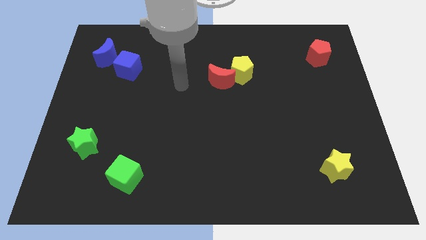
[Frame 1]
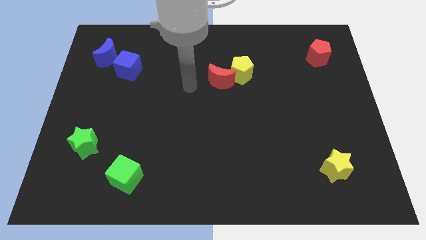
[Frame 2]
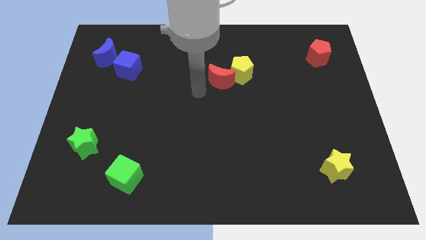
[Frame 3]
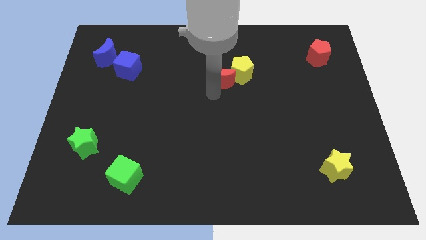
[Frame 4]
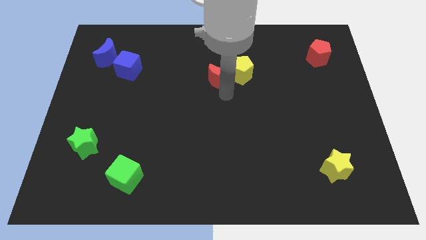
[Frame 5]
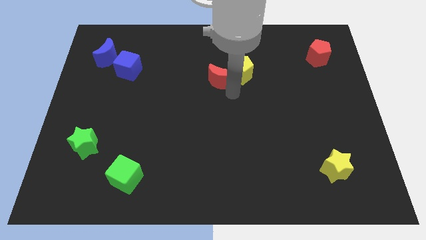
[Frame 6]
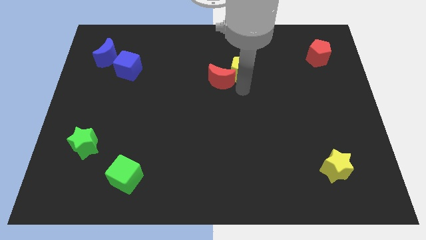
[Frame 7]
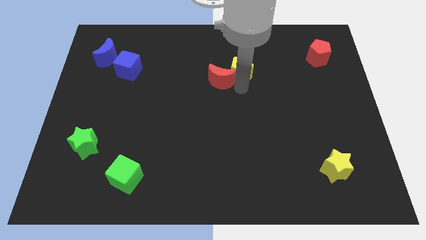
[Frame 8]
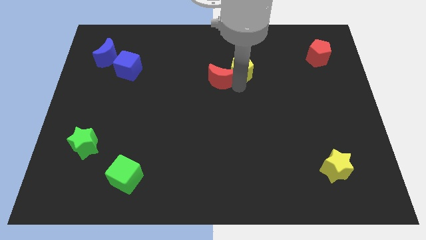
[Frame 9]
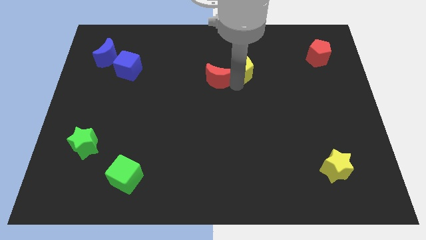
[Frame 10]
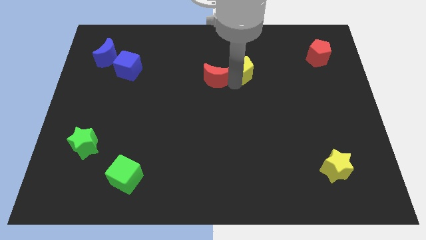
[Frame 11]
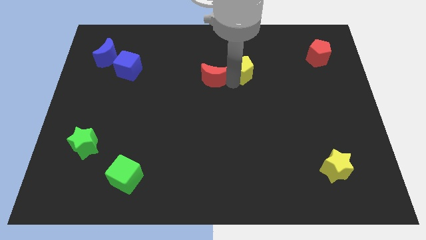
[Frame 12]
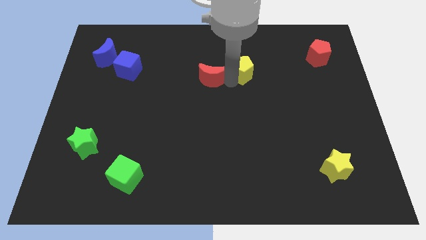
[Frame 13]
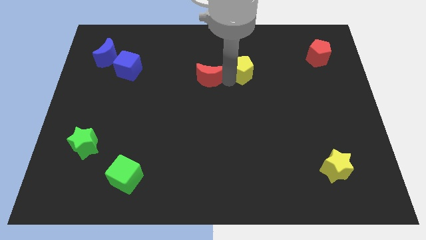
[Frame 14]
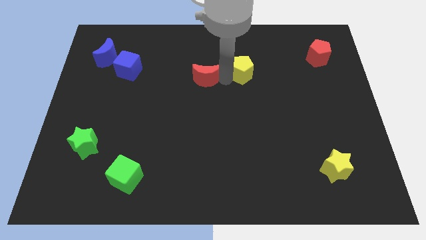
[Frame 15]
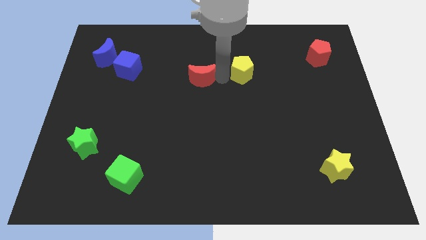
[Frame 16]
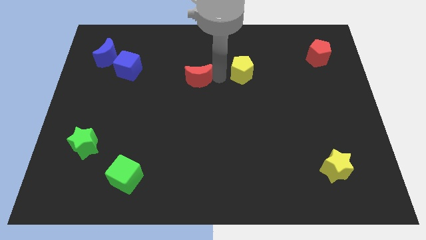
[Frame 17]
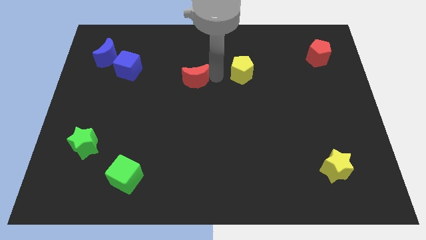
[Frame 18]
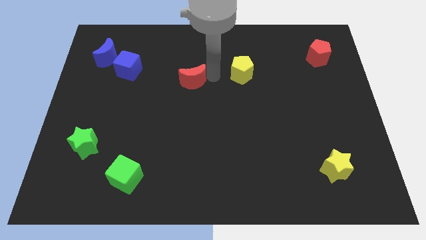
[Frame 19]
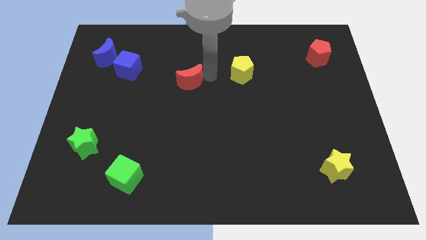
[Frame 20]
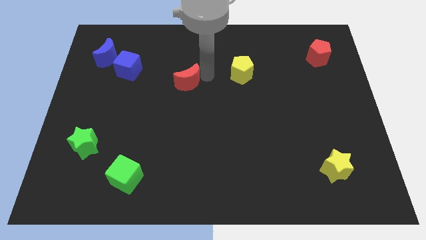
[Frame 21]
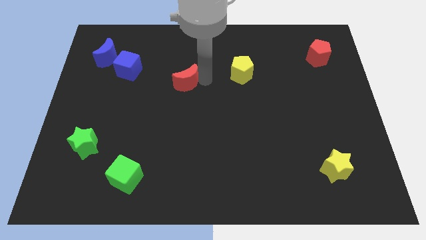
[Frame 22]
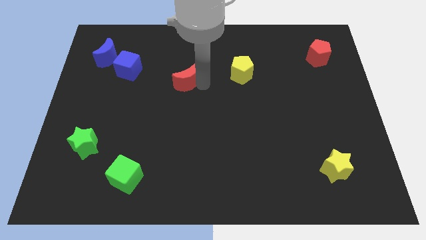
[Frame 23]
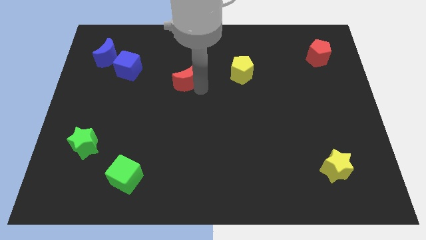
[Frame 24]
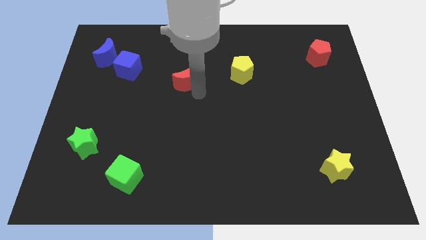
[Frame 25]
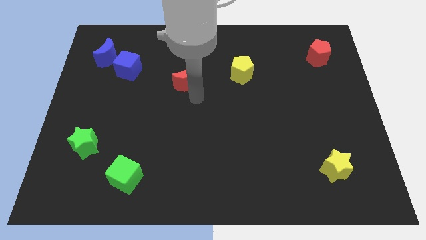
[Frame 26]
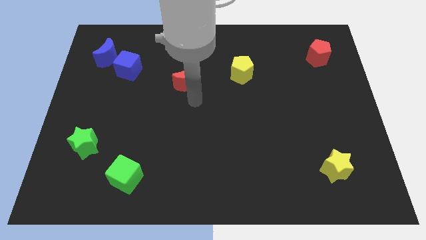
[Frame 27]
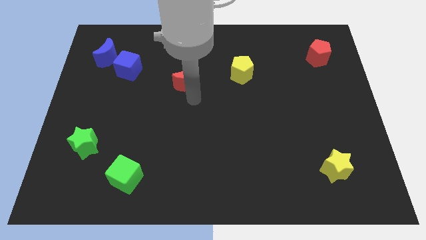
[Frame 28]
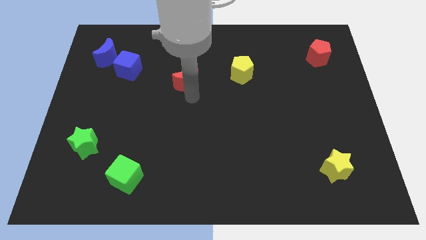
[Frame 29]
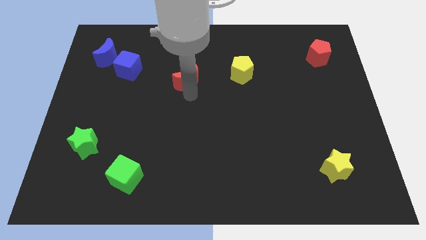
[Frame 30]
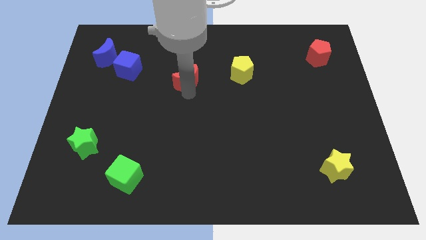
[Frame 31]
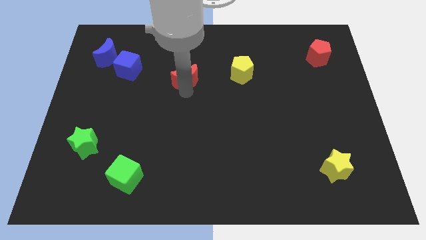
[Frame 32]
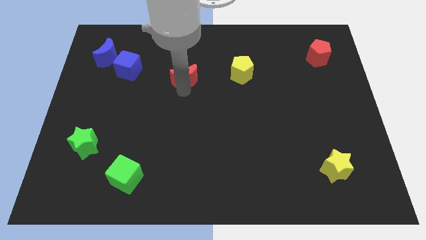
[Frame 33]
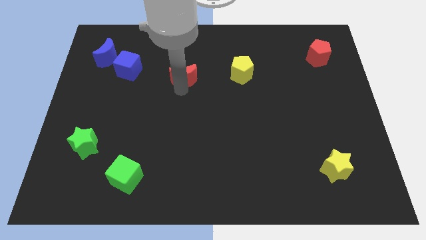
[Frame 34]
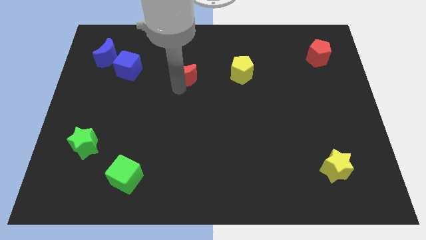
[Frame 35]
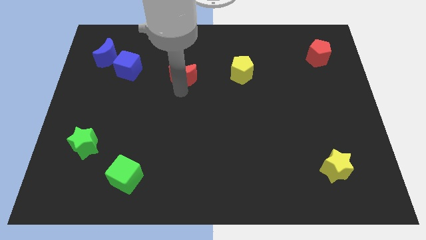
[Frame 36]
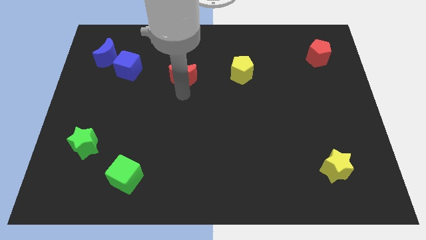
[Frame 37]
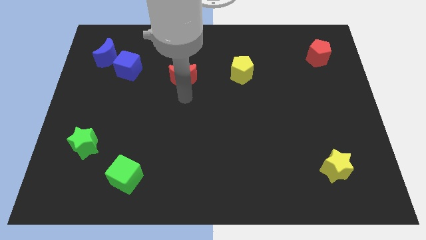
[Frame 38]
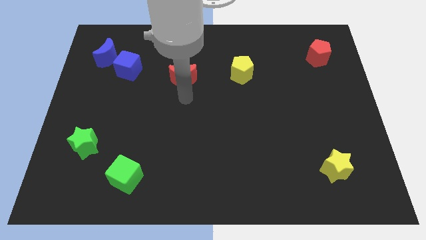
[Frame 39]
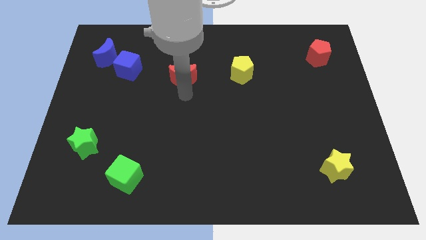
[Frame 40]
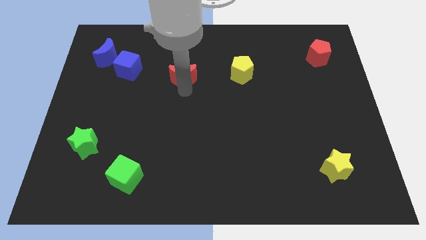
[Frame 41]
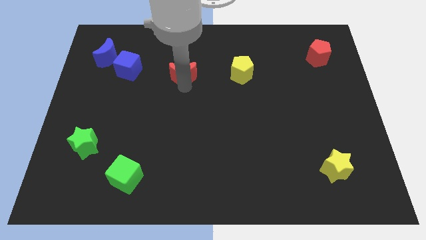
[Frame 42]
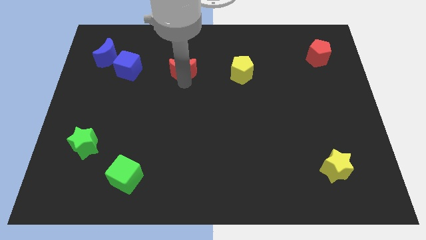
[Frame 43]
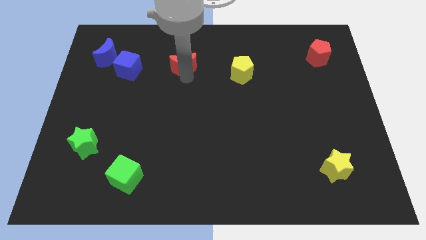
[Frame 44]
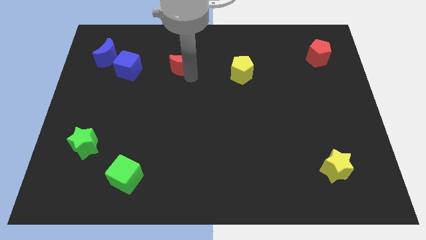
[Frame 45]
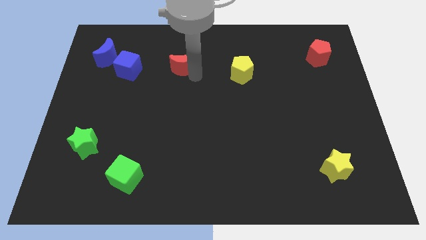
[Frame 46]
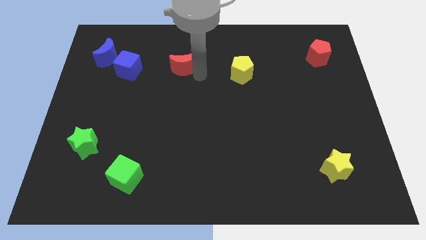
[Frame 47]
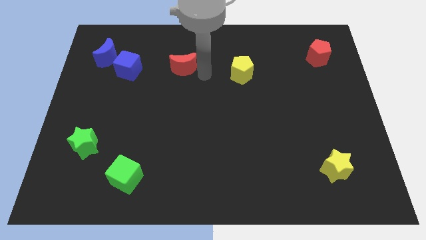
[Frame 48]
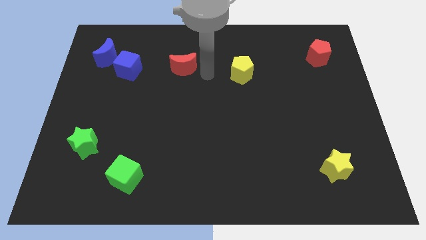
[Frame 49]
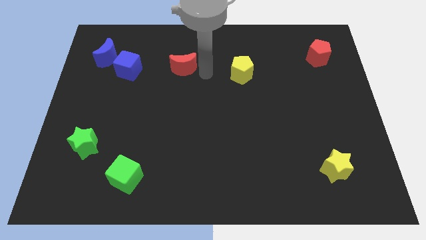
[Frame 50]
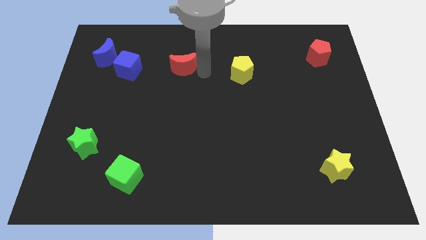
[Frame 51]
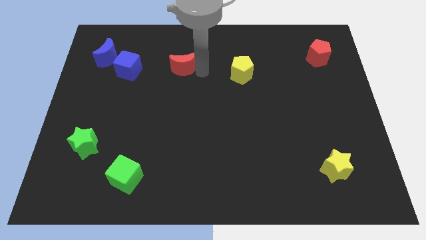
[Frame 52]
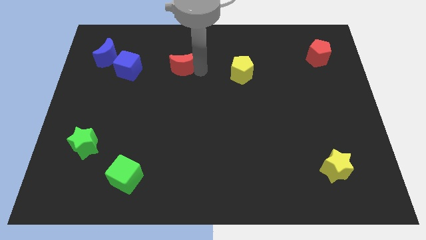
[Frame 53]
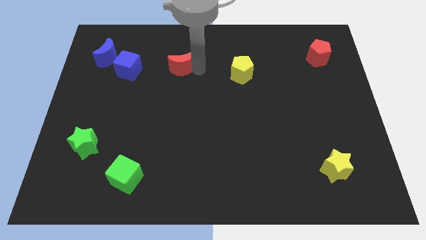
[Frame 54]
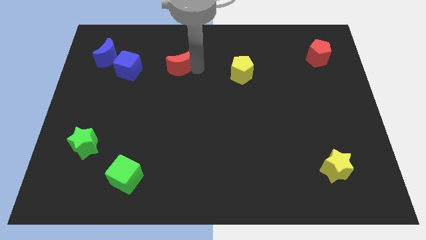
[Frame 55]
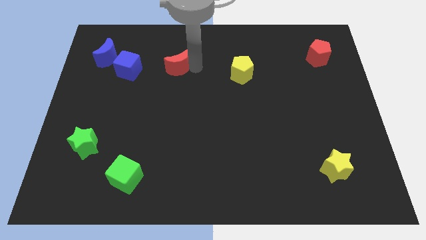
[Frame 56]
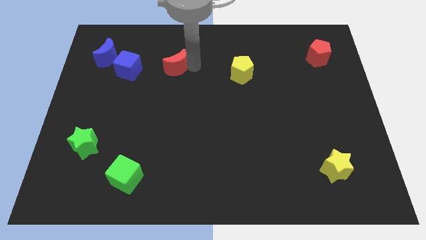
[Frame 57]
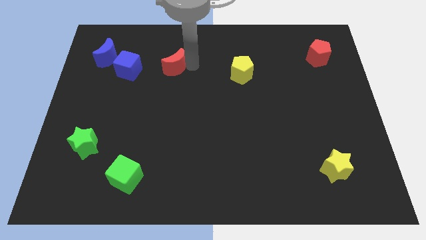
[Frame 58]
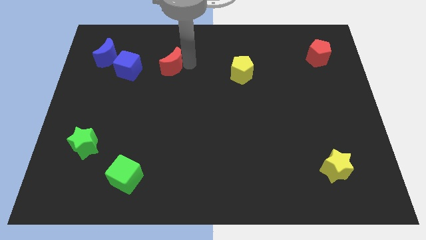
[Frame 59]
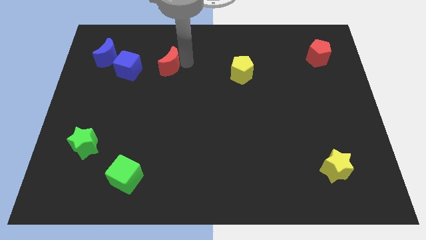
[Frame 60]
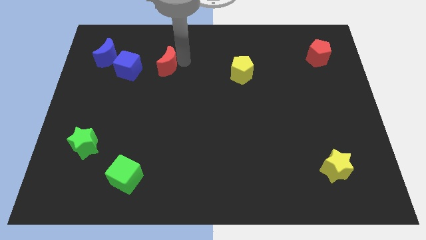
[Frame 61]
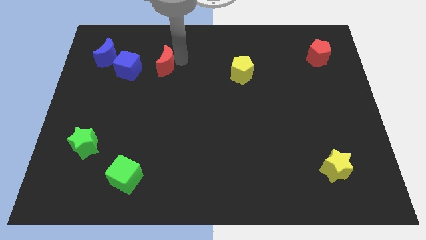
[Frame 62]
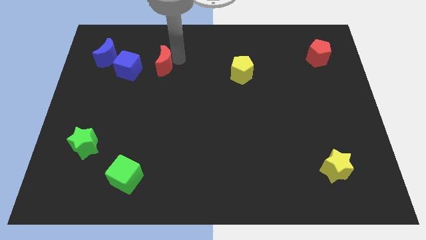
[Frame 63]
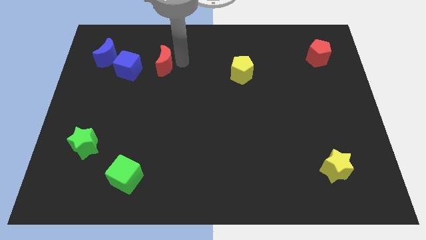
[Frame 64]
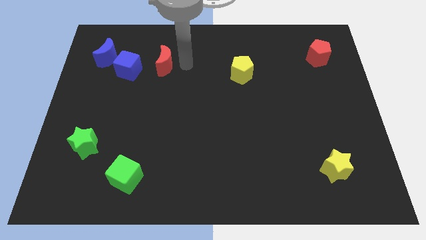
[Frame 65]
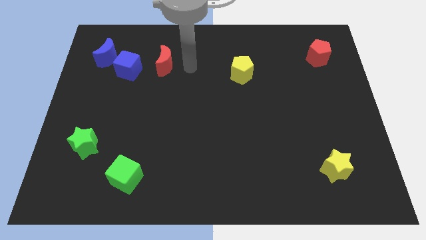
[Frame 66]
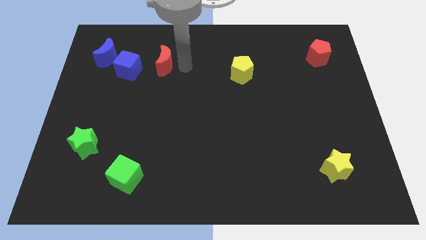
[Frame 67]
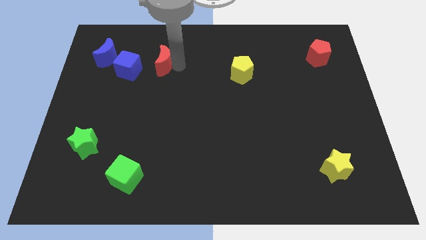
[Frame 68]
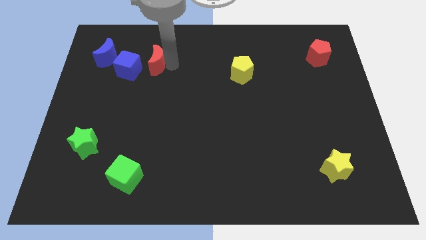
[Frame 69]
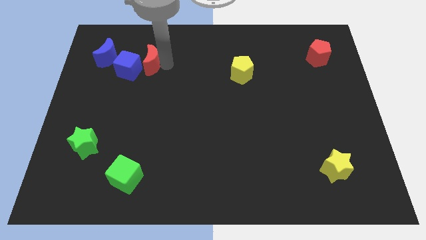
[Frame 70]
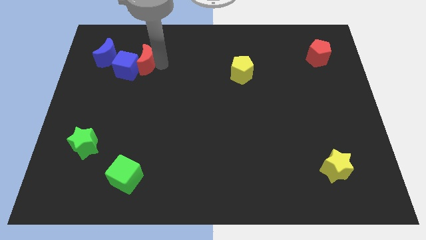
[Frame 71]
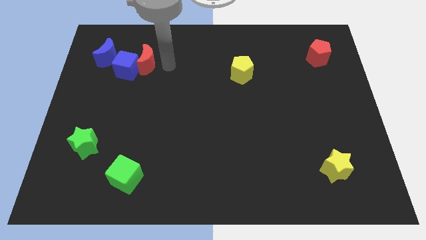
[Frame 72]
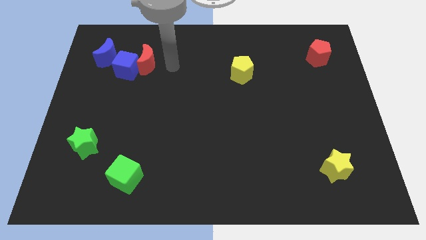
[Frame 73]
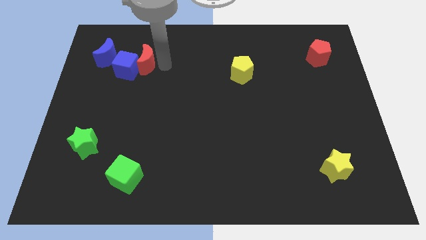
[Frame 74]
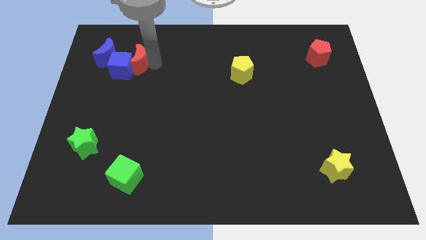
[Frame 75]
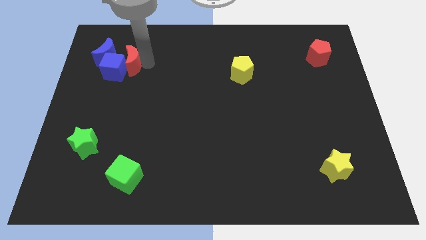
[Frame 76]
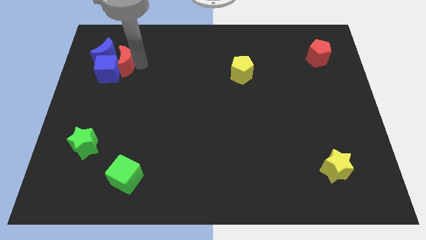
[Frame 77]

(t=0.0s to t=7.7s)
put the red moon to the blue moon
